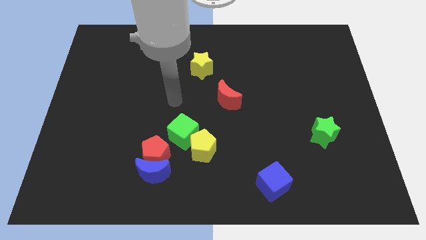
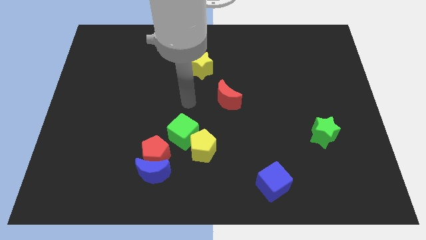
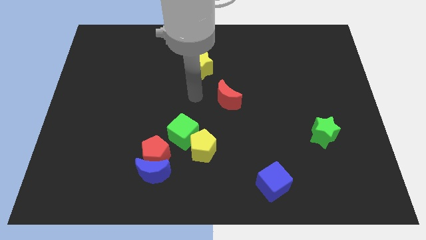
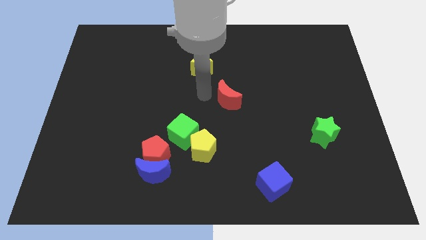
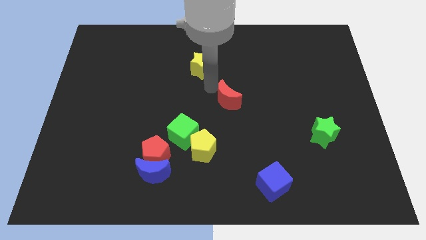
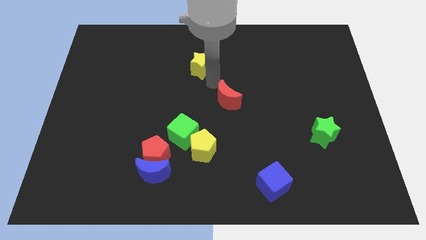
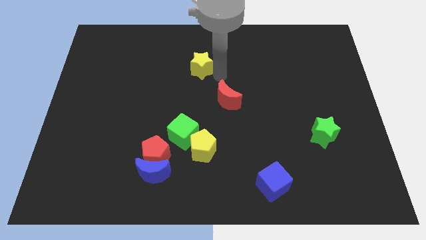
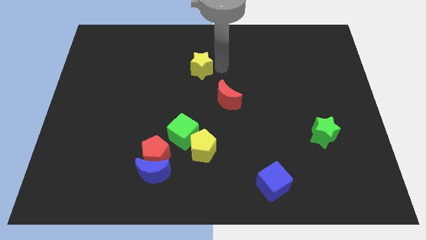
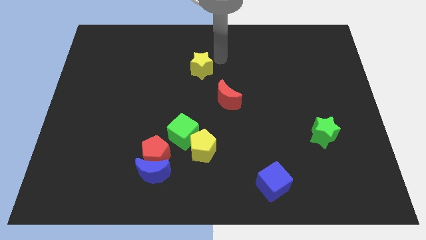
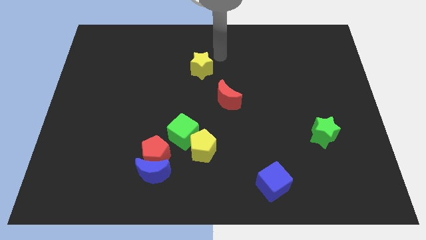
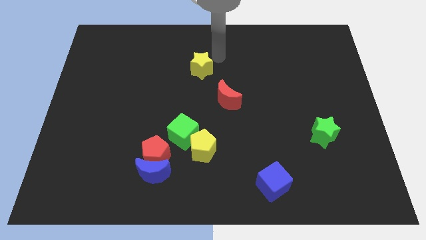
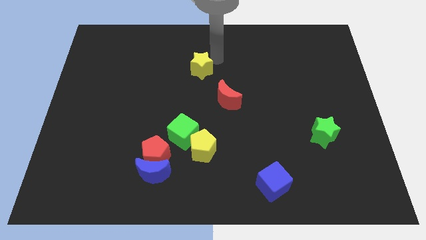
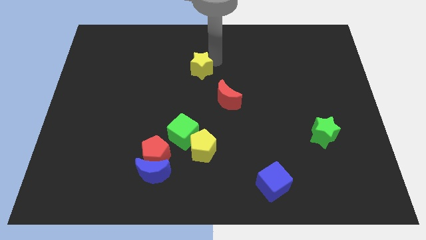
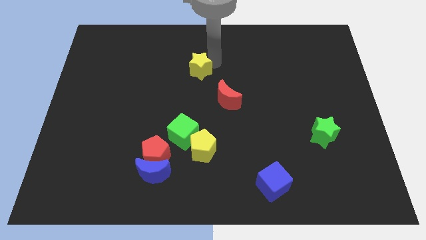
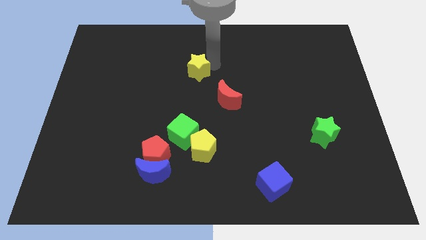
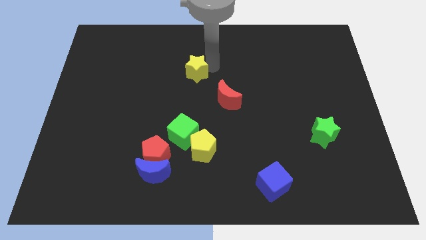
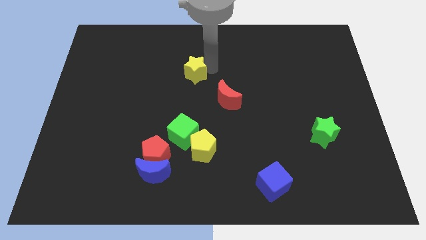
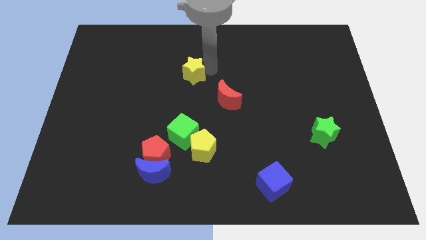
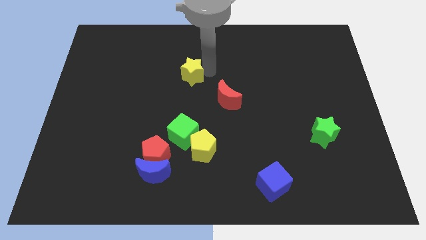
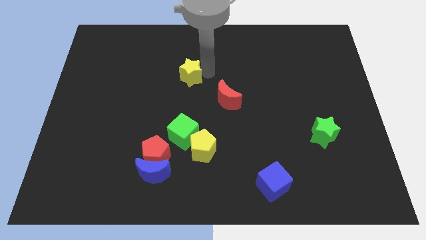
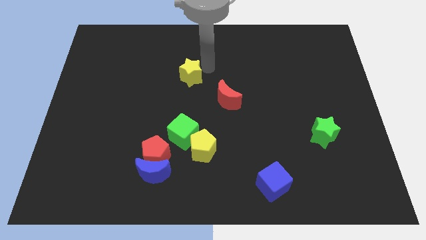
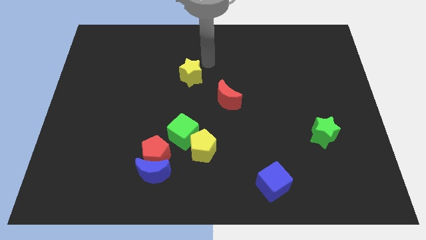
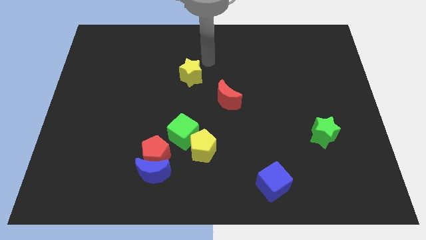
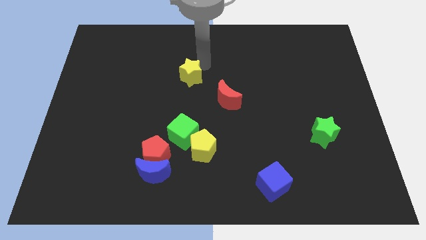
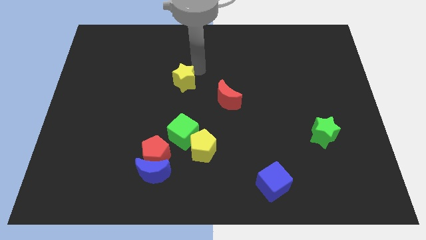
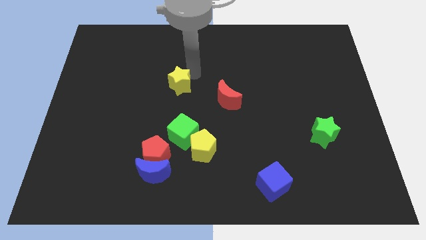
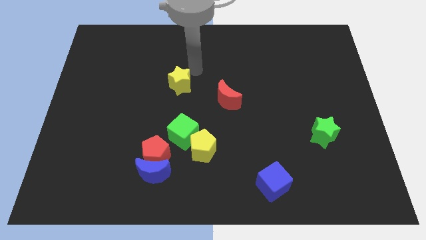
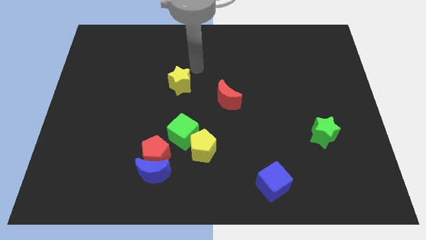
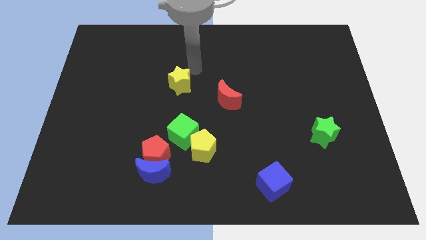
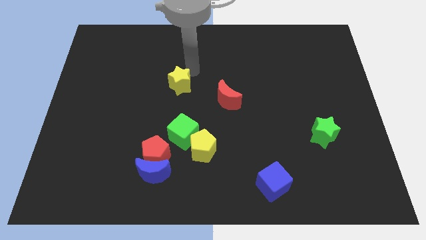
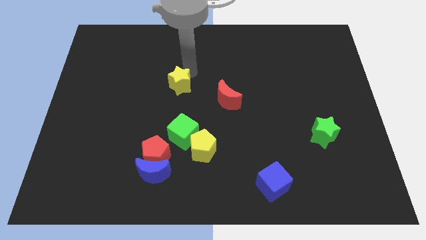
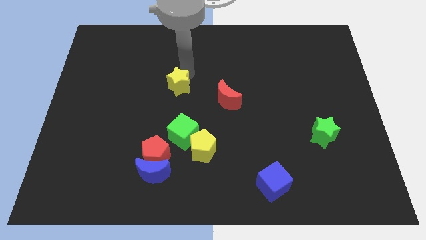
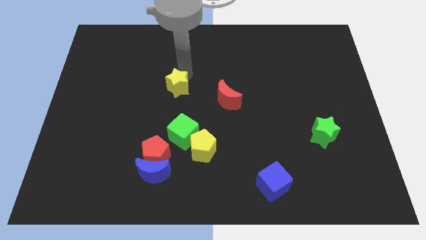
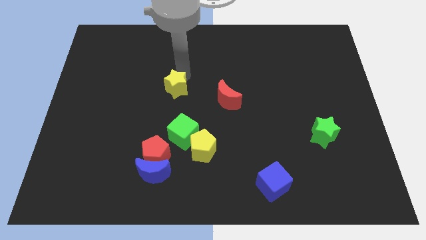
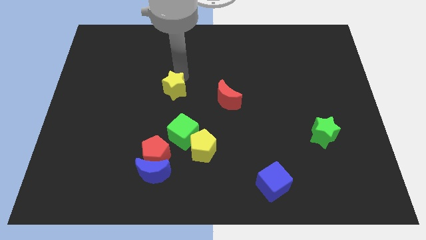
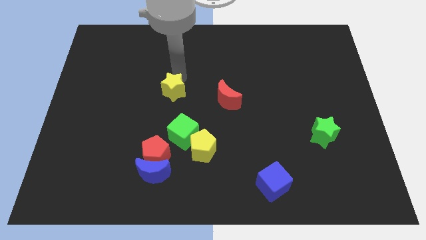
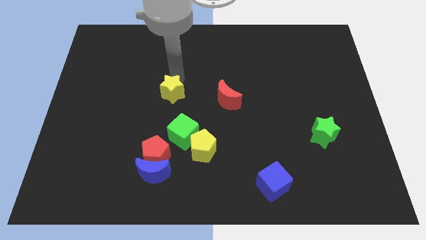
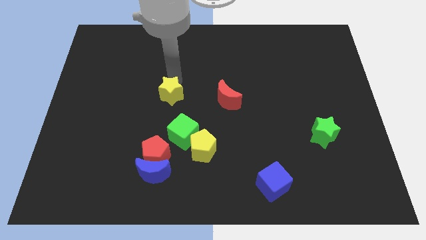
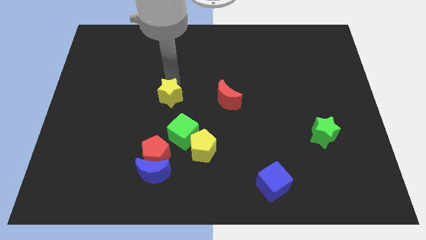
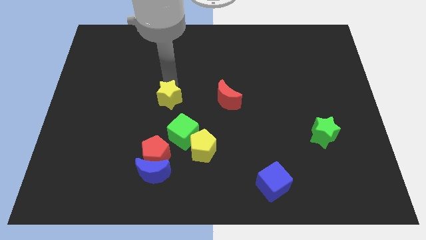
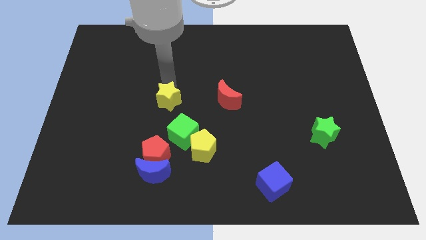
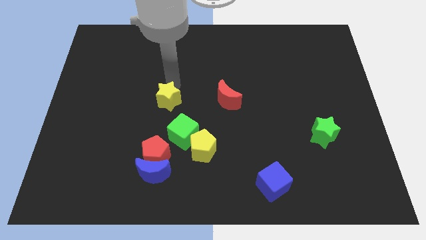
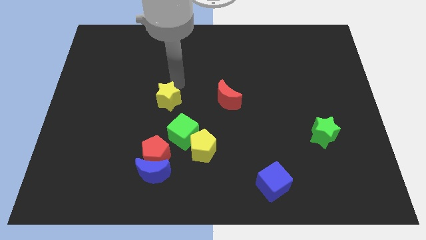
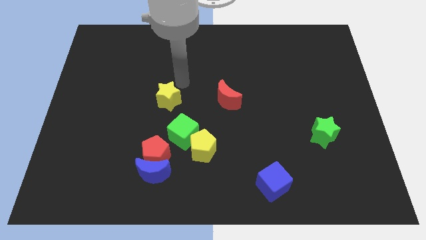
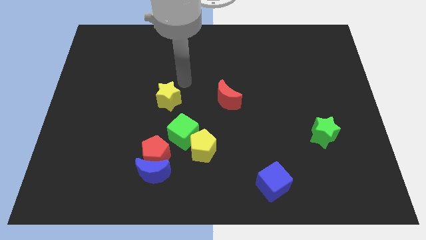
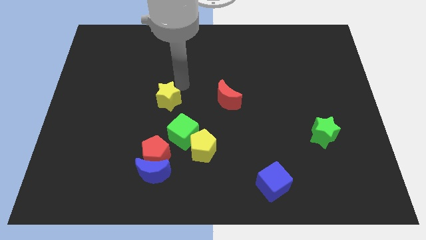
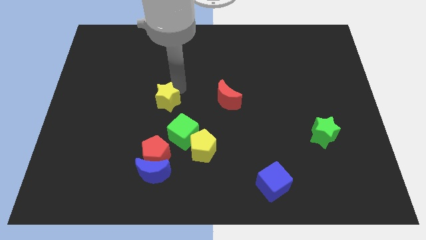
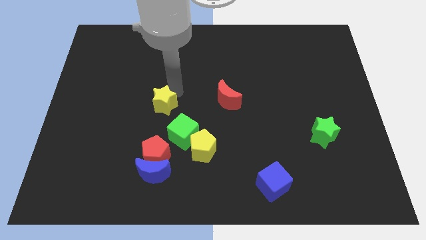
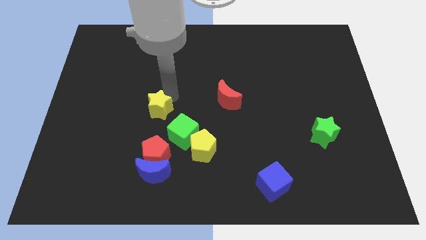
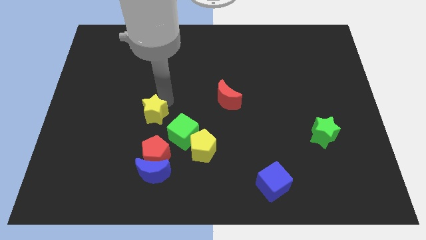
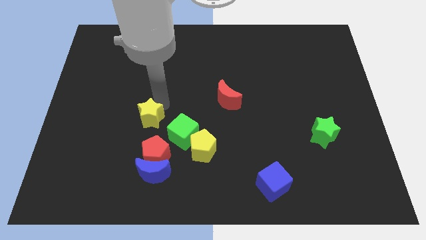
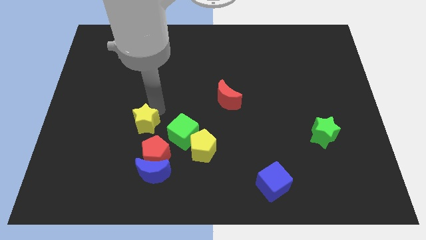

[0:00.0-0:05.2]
slide the yellow star to the left side of the green cube

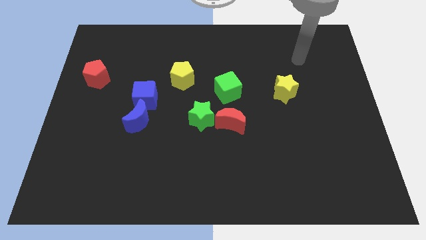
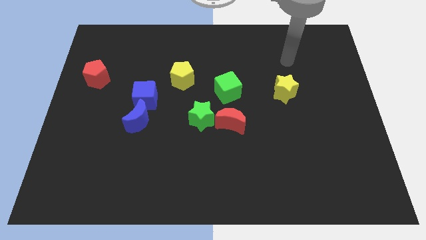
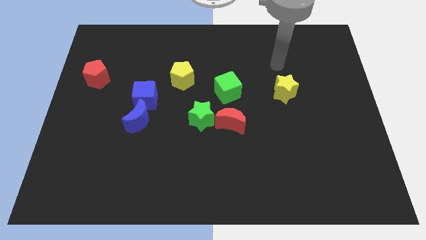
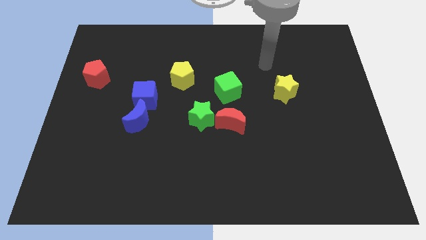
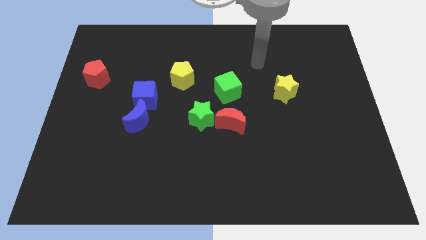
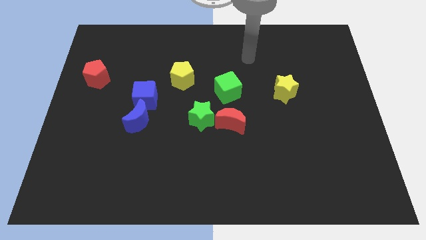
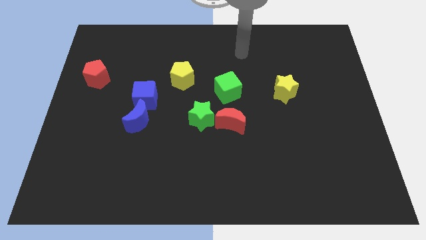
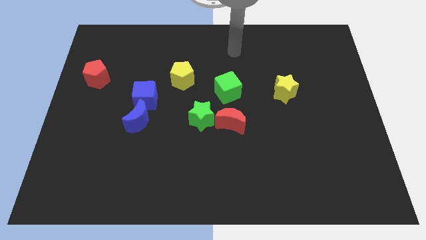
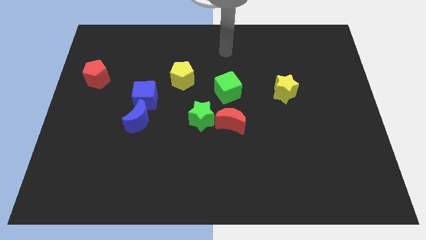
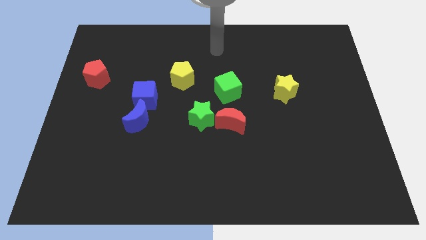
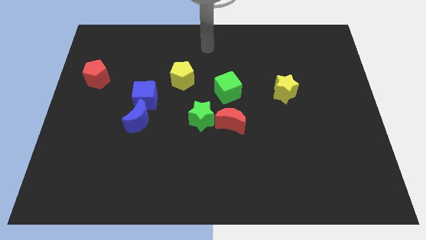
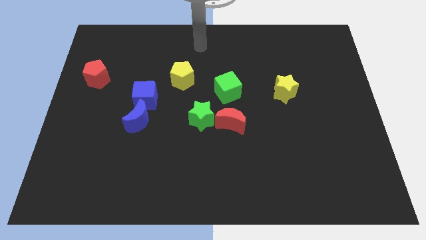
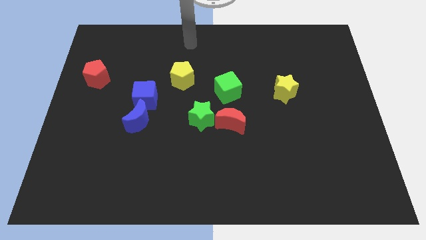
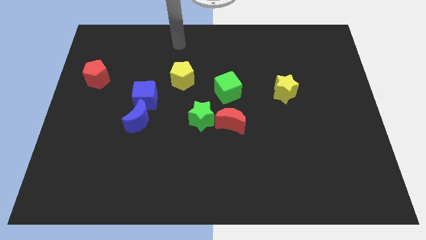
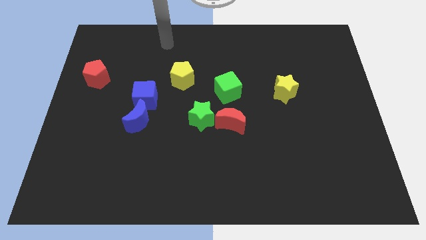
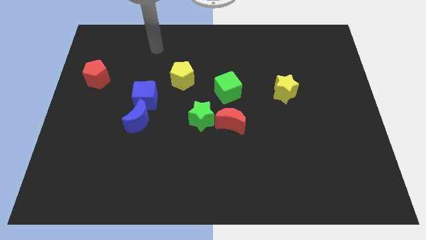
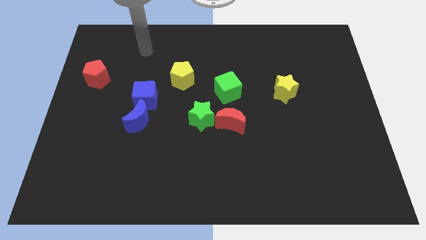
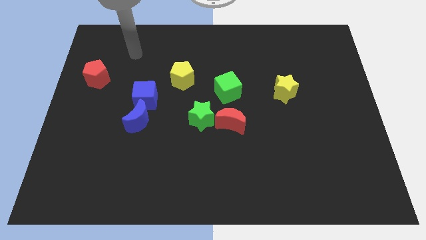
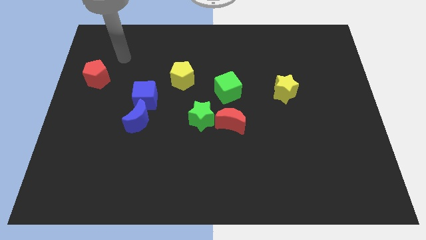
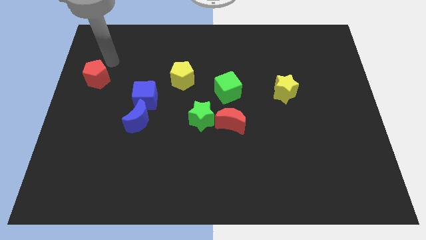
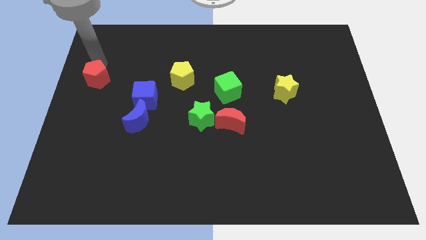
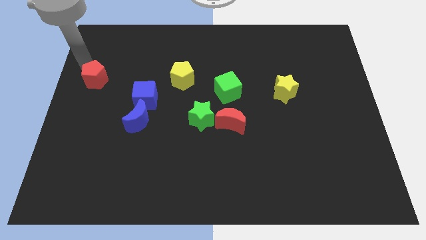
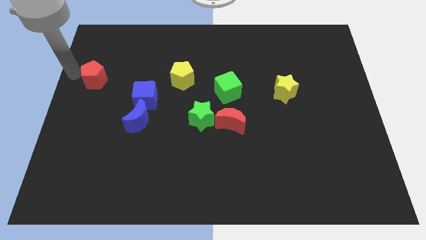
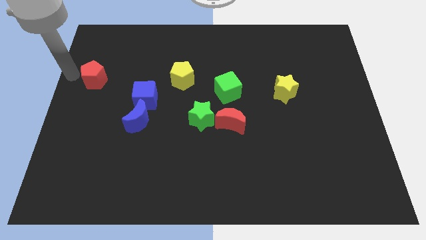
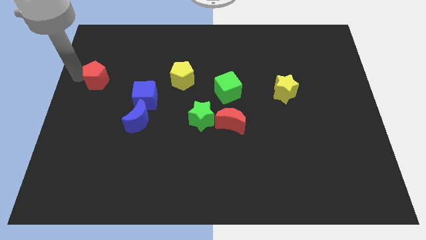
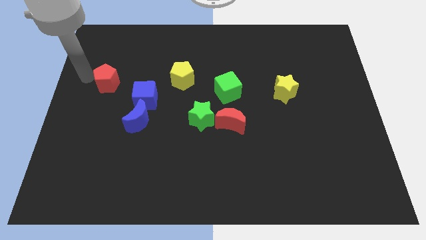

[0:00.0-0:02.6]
slide the red pentagon to the top left side of the blue cube
